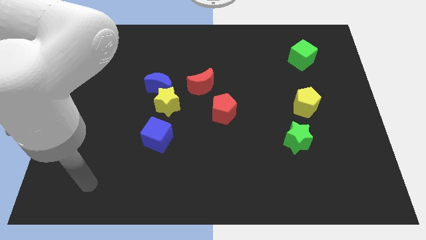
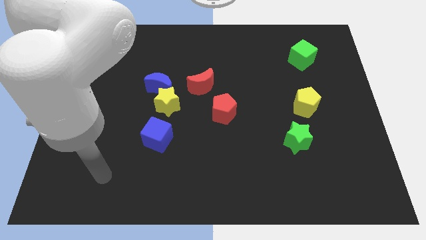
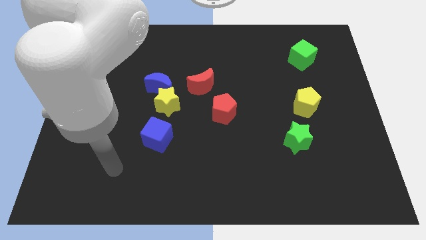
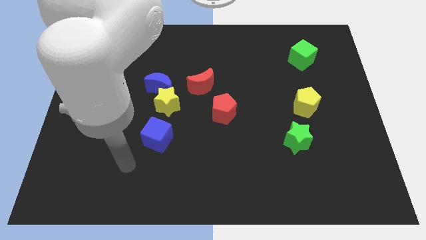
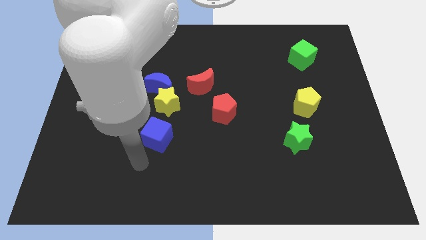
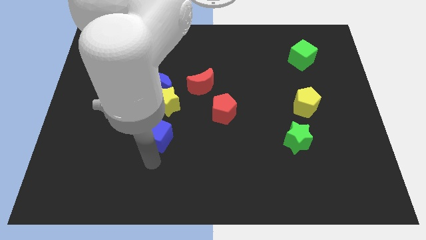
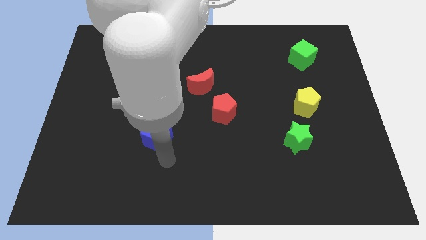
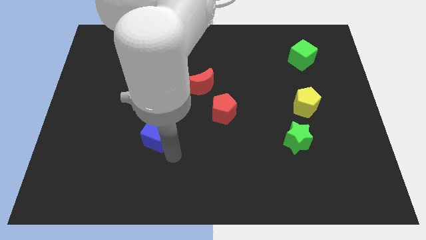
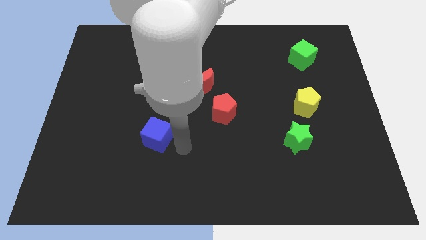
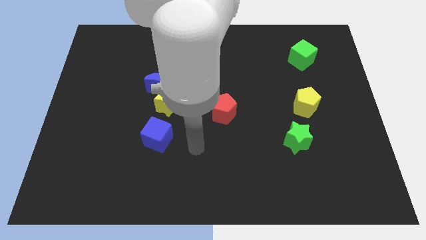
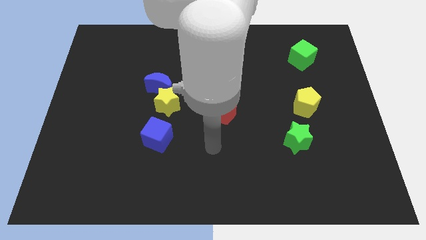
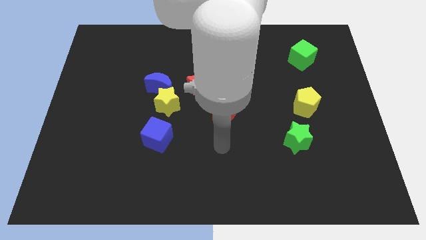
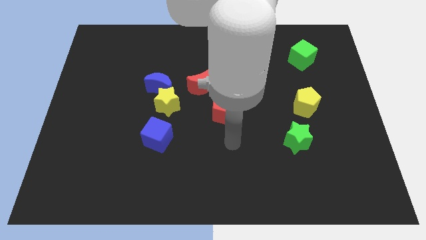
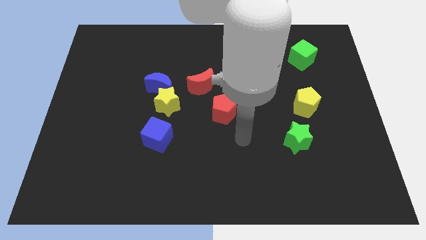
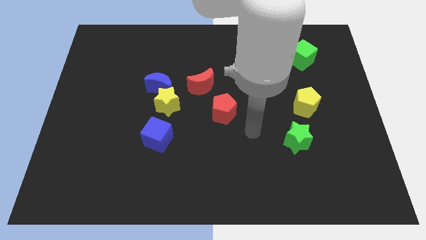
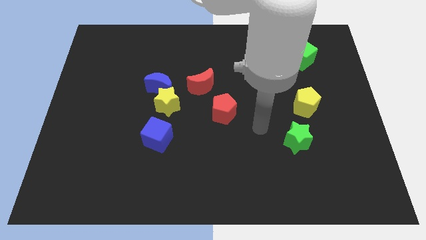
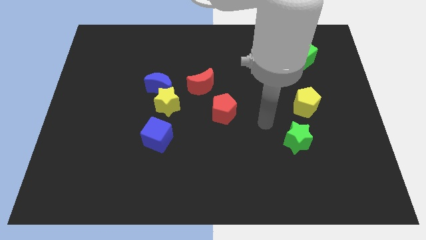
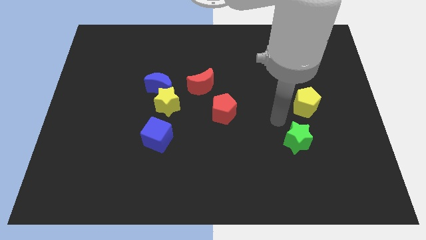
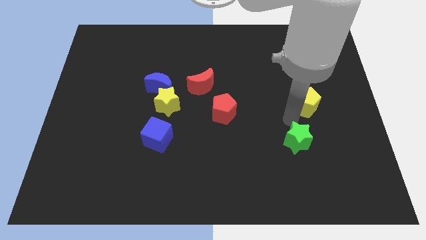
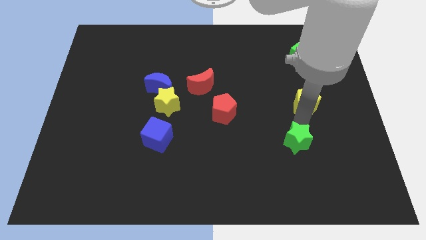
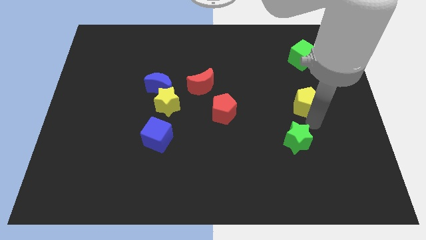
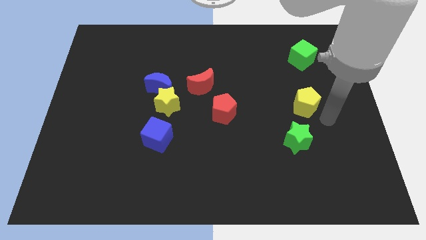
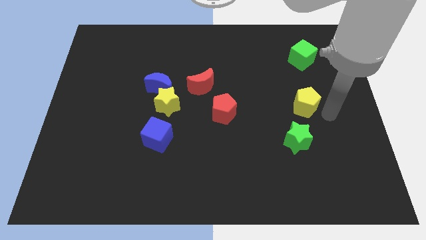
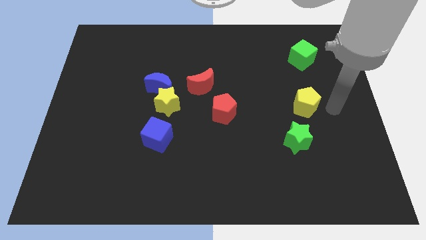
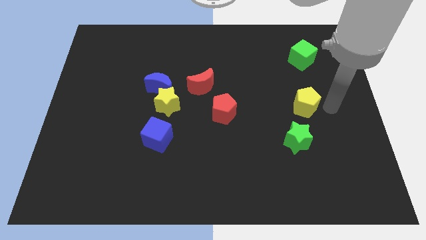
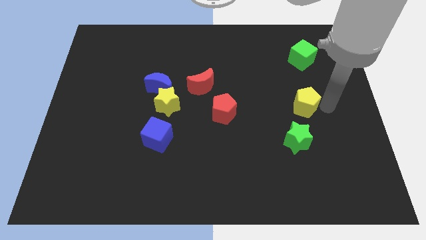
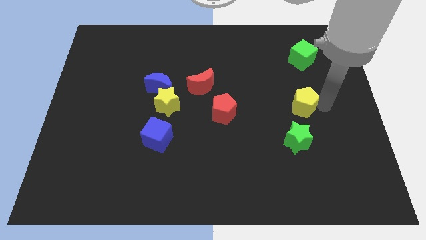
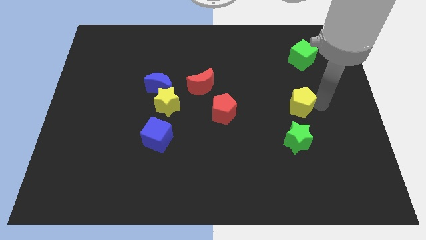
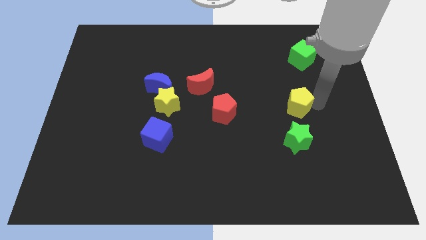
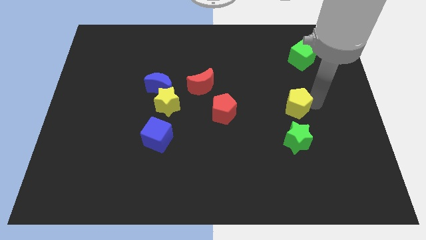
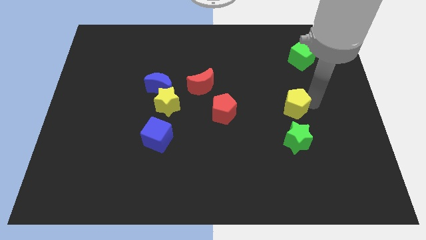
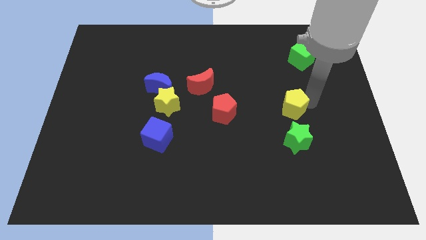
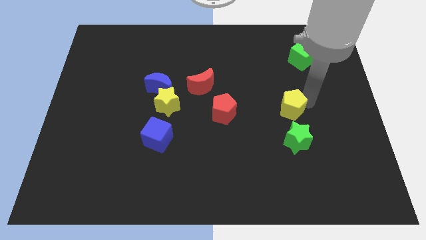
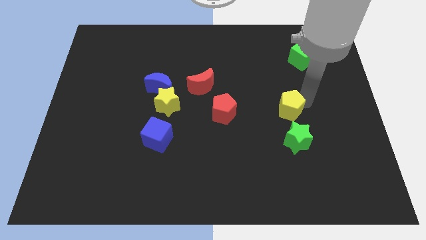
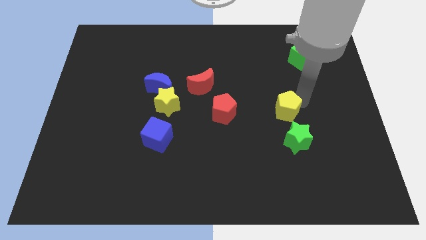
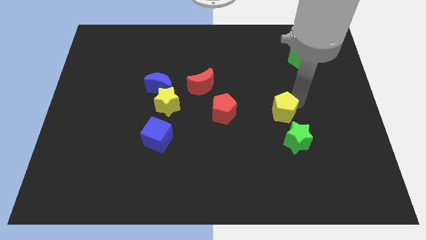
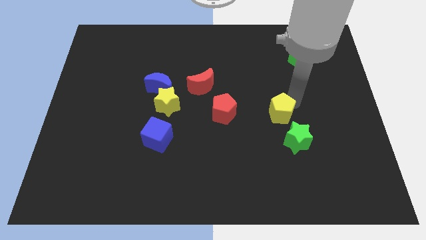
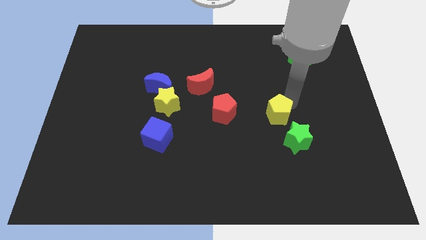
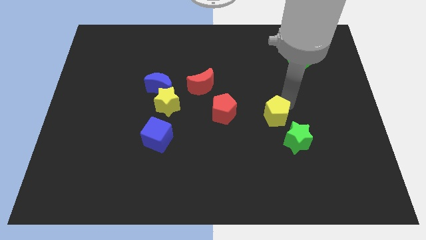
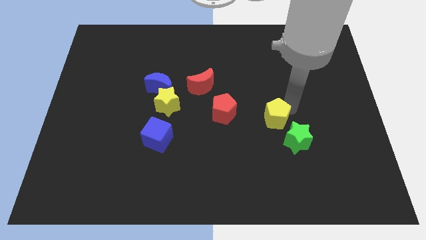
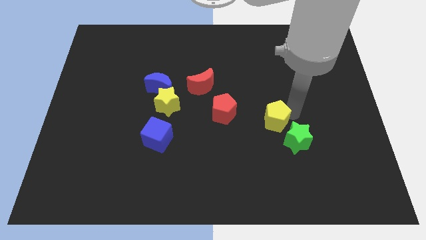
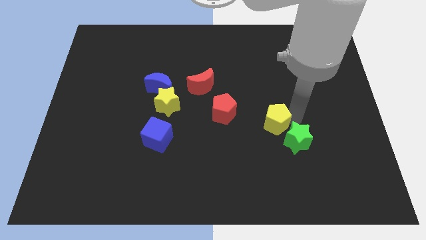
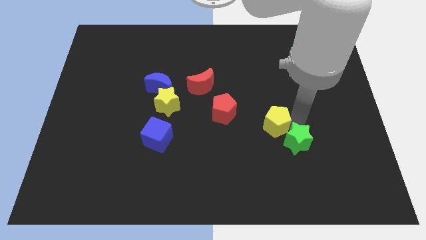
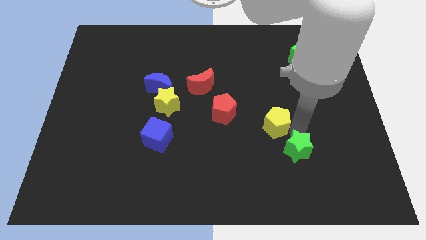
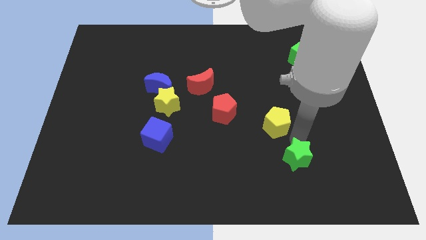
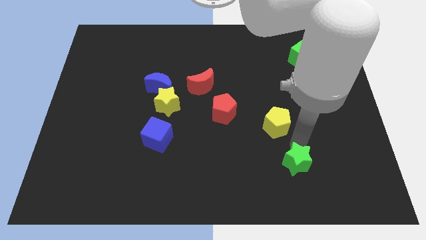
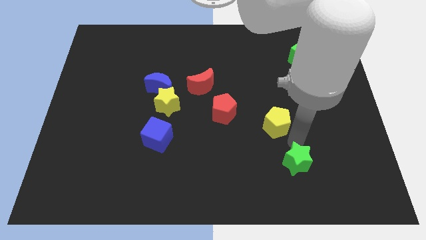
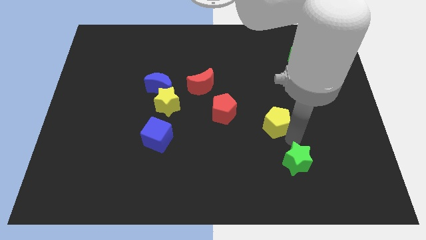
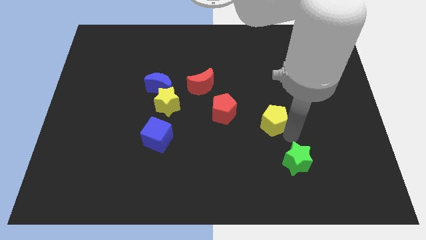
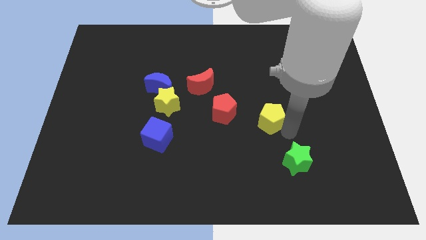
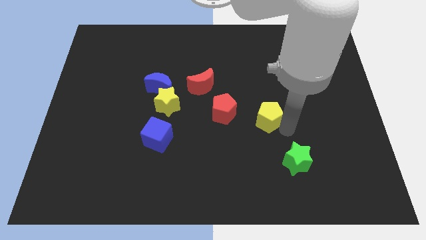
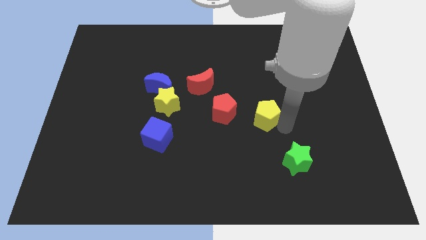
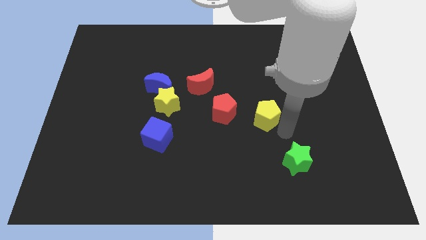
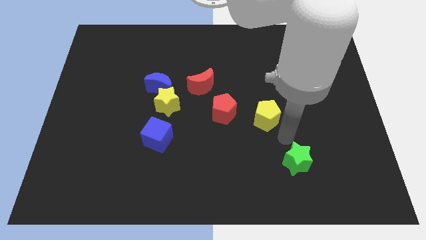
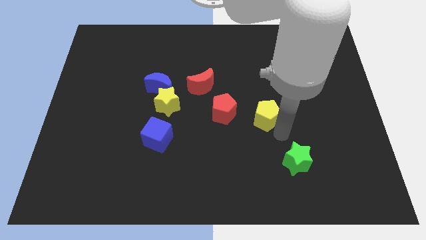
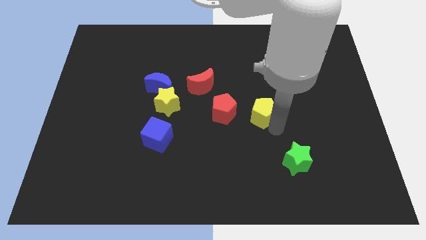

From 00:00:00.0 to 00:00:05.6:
put the yellow pentagon to the middle of the board

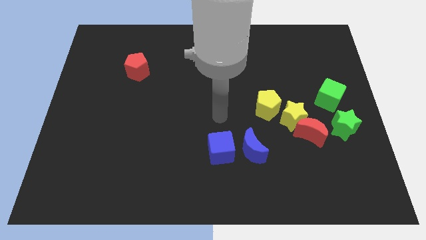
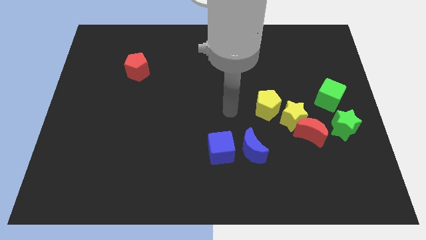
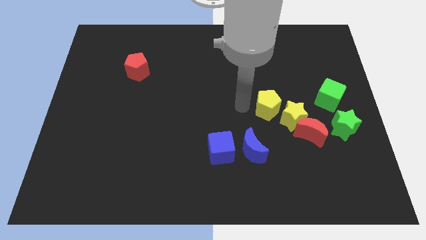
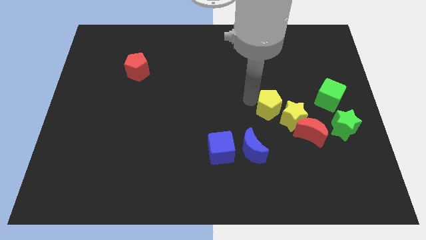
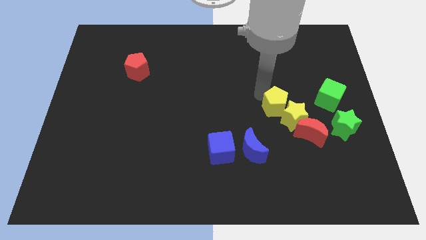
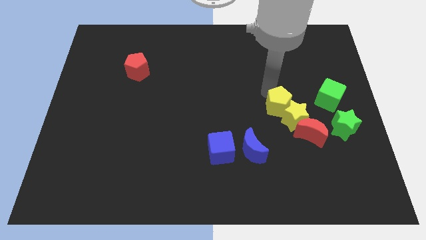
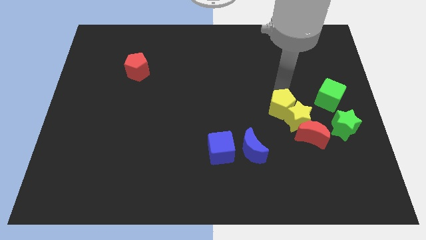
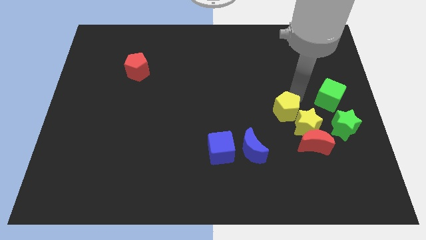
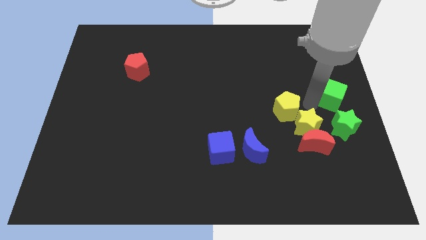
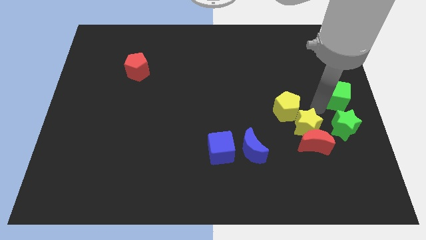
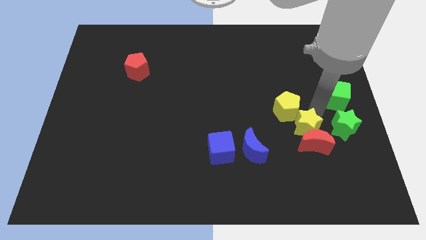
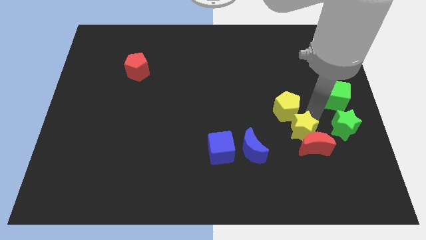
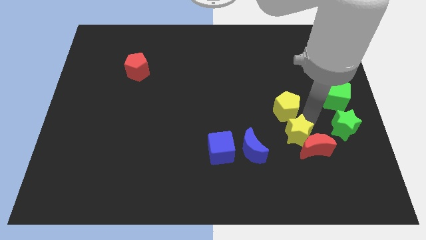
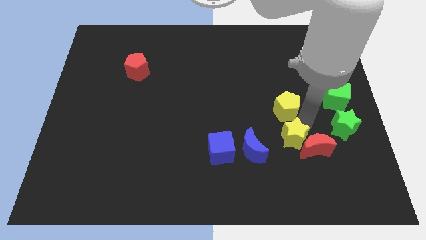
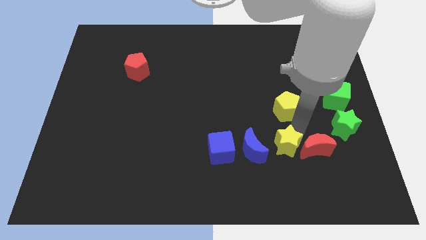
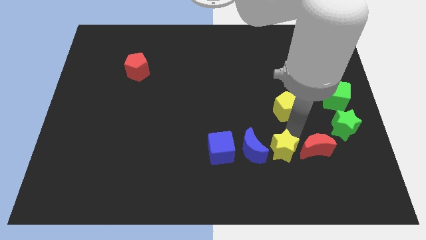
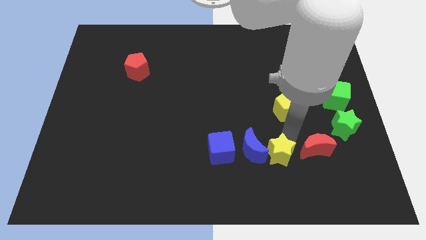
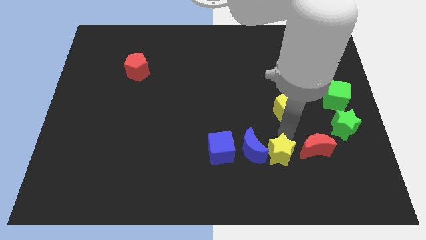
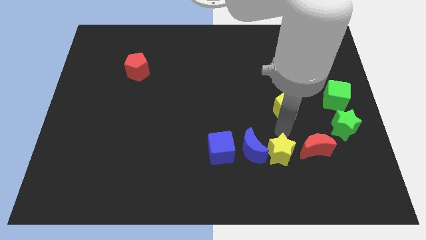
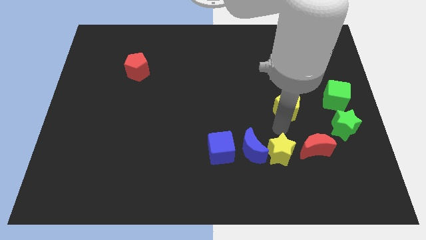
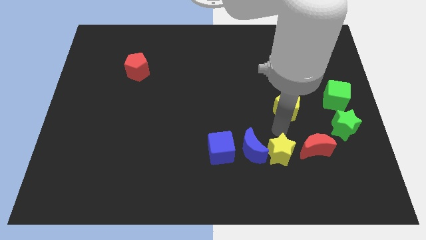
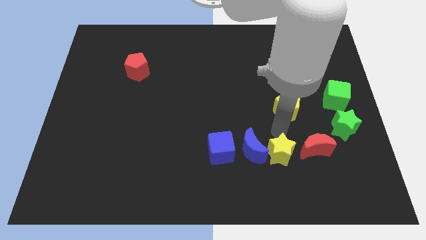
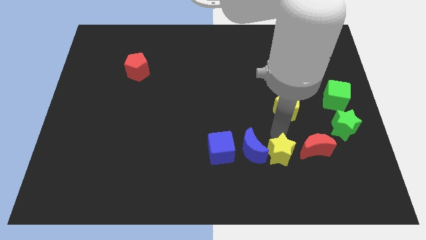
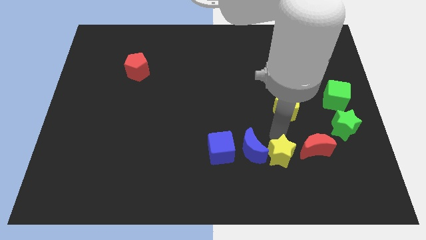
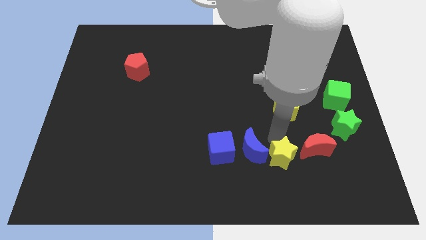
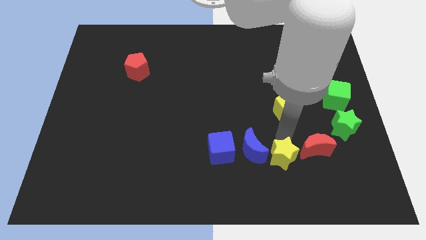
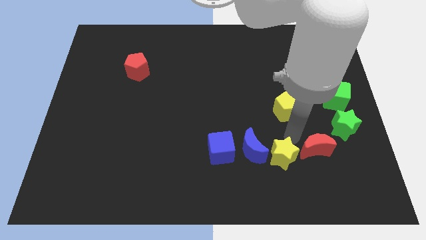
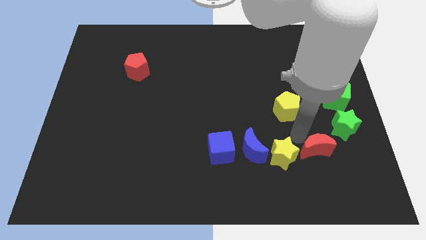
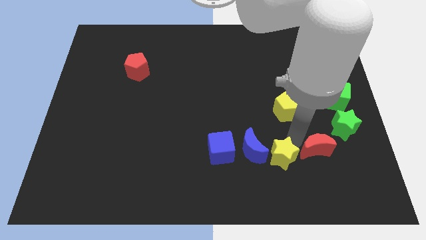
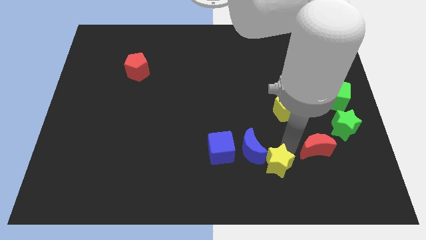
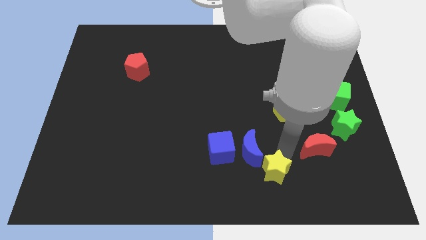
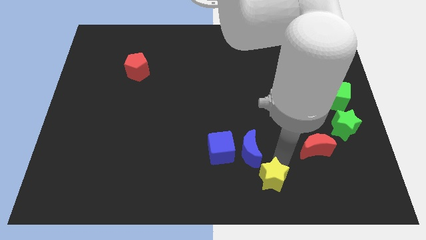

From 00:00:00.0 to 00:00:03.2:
push the yellow star to the bottom
